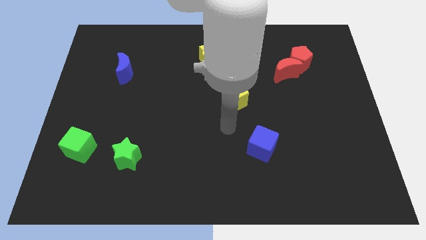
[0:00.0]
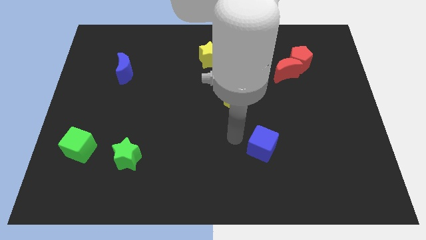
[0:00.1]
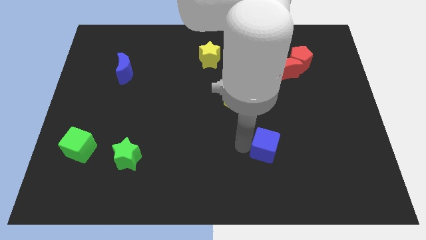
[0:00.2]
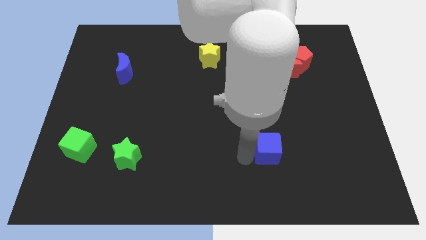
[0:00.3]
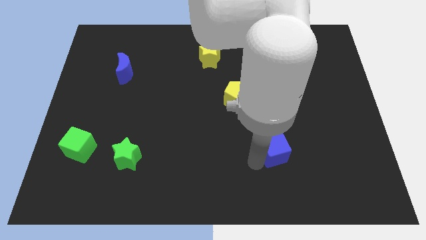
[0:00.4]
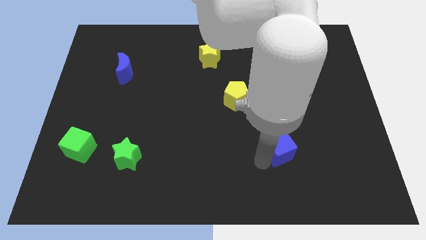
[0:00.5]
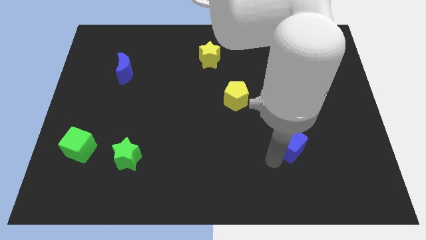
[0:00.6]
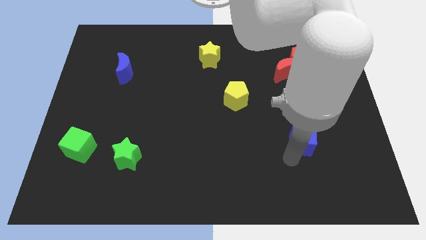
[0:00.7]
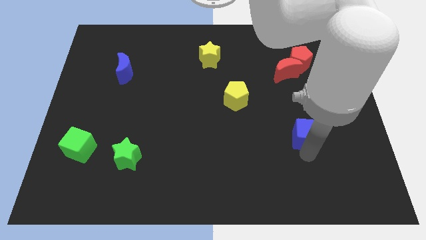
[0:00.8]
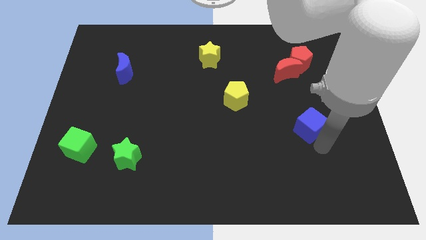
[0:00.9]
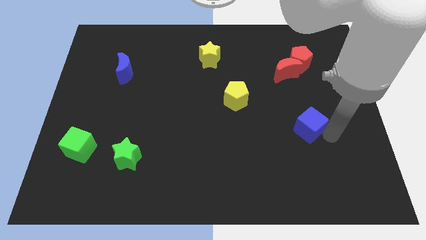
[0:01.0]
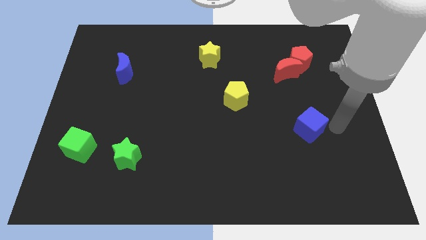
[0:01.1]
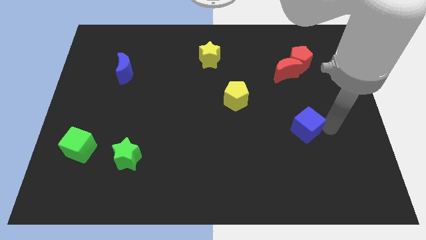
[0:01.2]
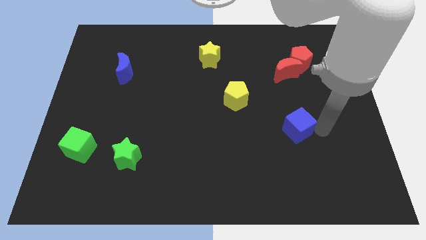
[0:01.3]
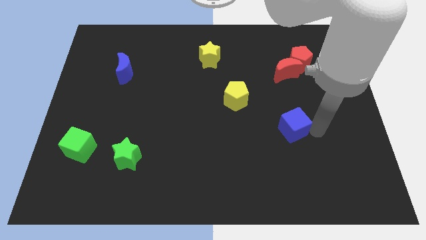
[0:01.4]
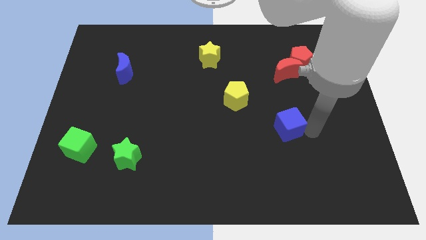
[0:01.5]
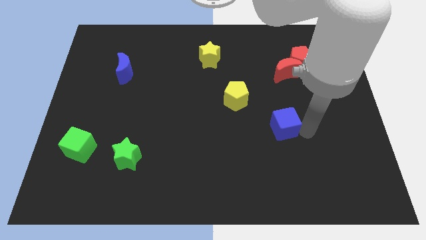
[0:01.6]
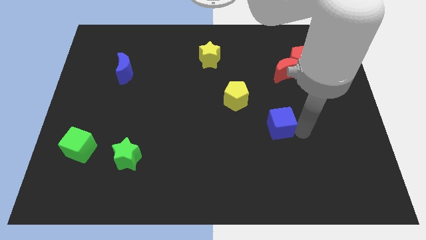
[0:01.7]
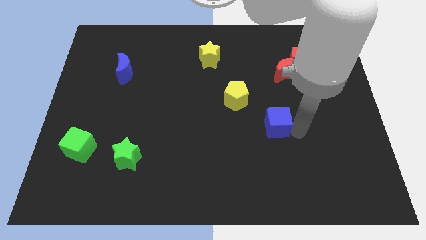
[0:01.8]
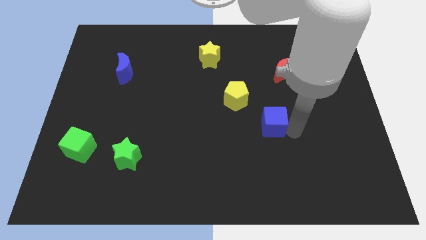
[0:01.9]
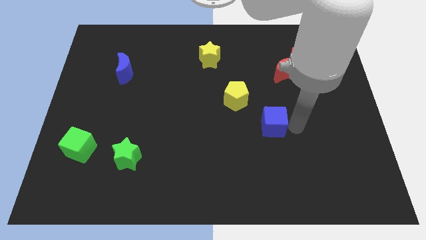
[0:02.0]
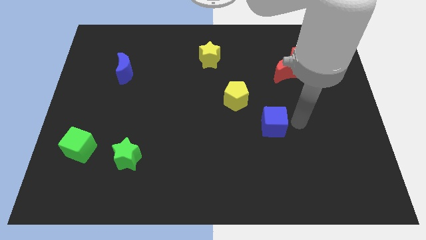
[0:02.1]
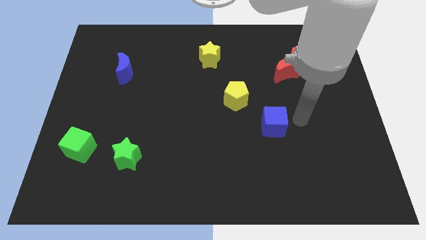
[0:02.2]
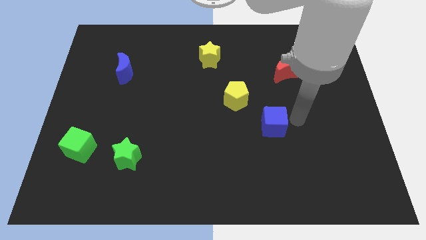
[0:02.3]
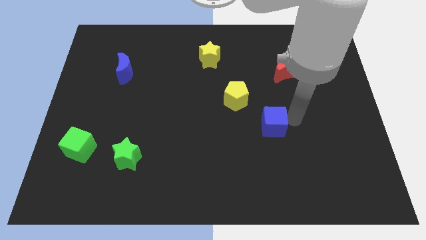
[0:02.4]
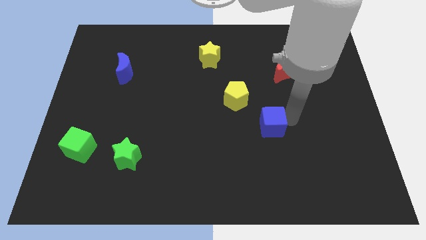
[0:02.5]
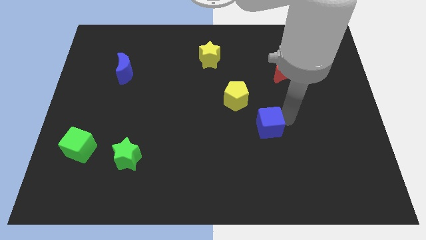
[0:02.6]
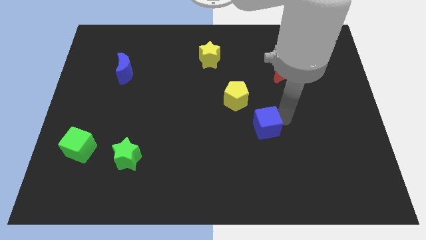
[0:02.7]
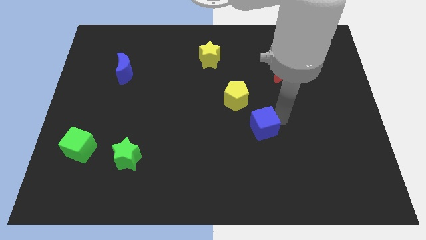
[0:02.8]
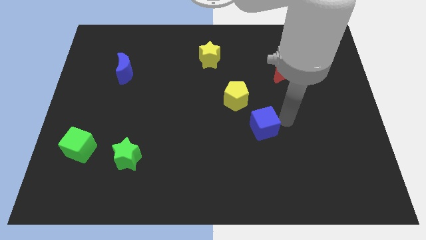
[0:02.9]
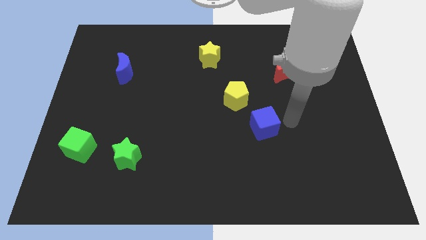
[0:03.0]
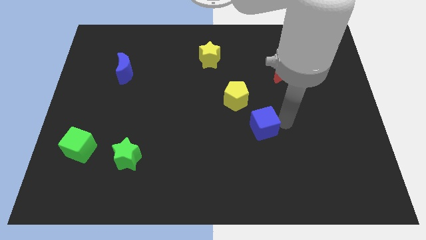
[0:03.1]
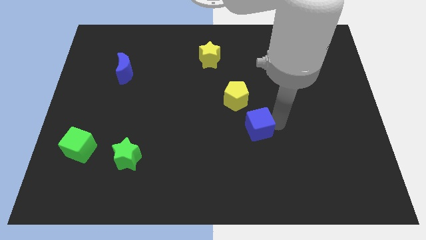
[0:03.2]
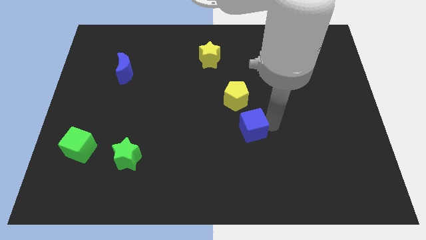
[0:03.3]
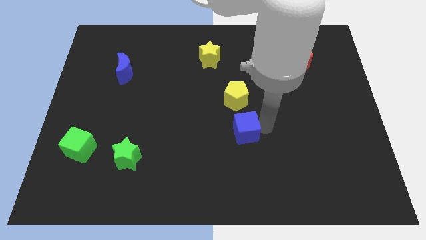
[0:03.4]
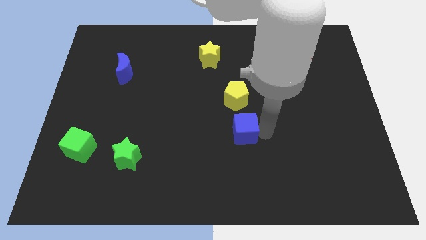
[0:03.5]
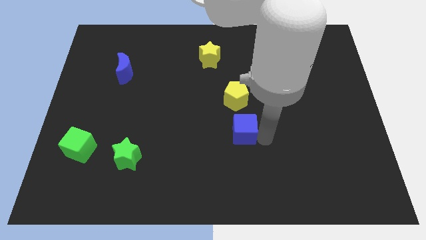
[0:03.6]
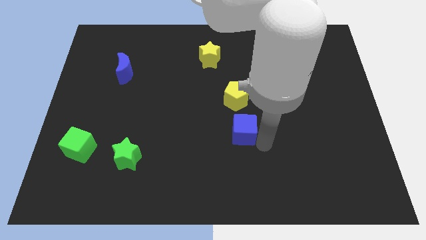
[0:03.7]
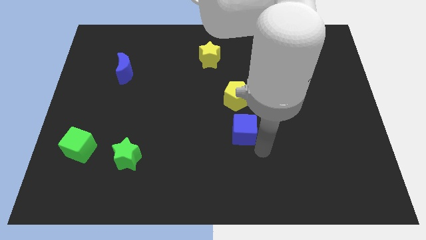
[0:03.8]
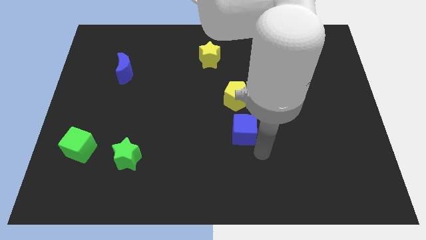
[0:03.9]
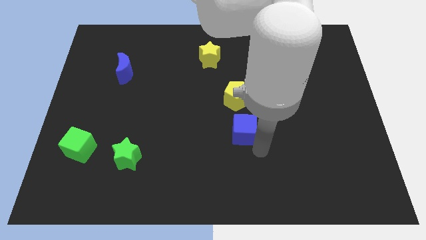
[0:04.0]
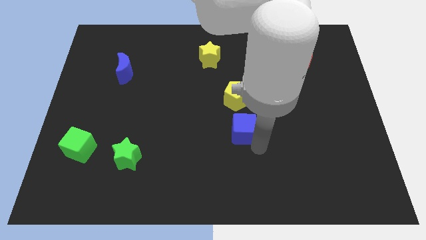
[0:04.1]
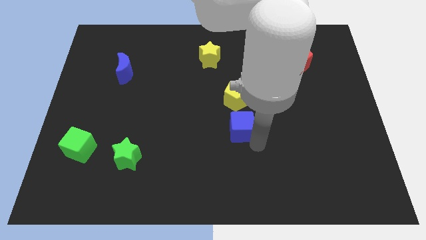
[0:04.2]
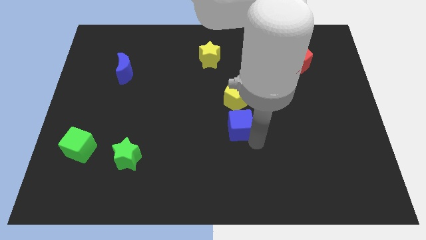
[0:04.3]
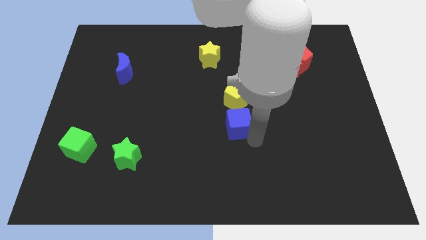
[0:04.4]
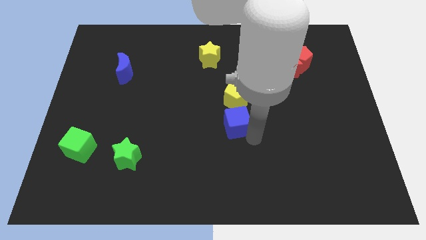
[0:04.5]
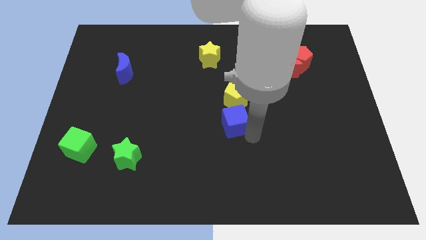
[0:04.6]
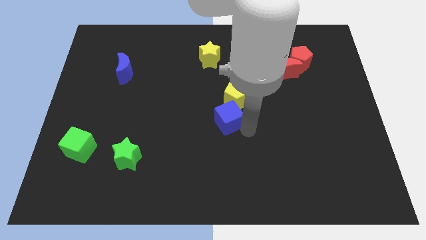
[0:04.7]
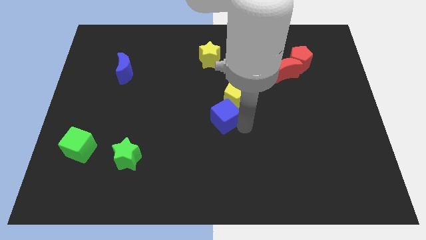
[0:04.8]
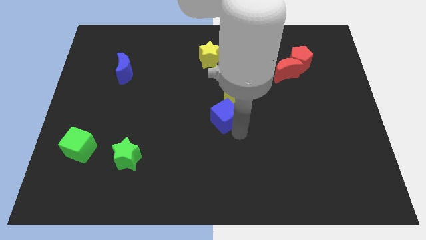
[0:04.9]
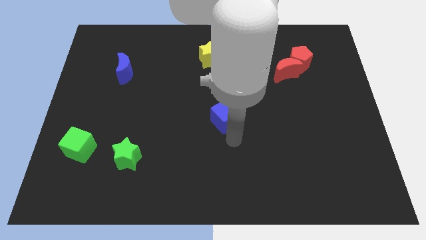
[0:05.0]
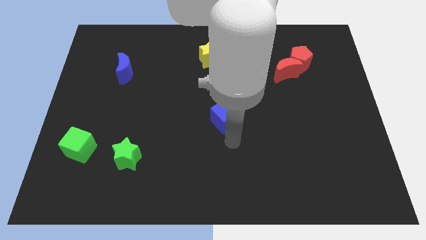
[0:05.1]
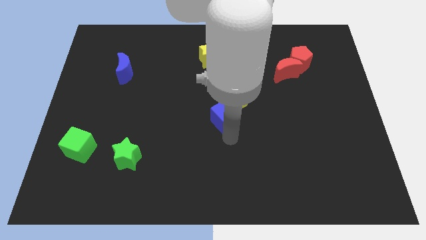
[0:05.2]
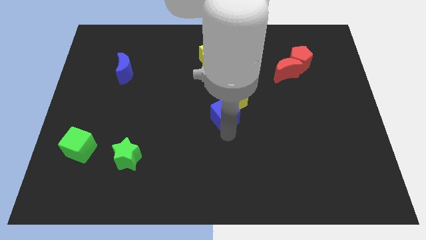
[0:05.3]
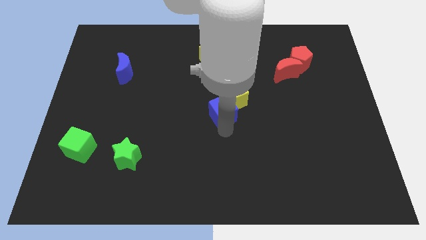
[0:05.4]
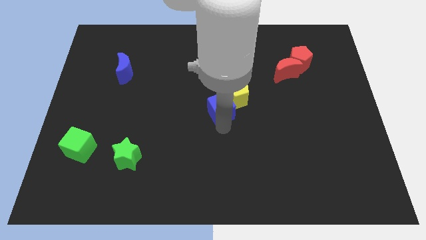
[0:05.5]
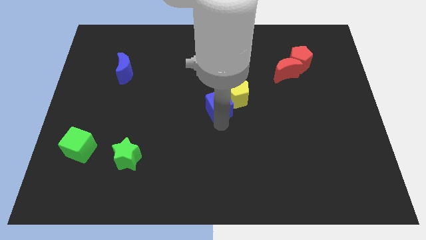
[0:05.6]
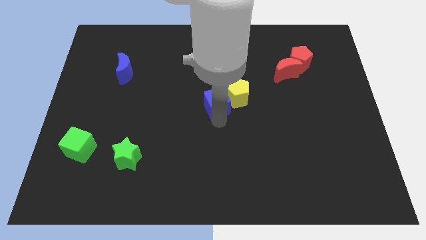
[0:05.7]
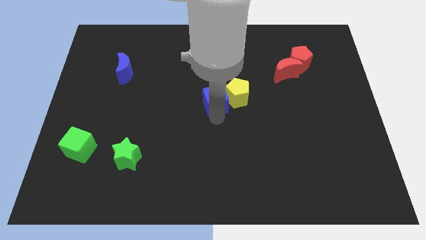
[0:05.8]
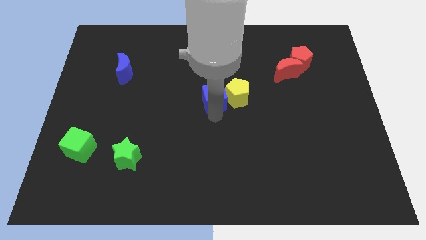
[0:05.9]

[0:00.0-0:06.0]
push the blue cube diagonally up and to the left of the yellow pentagon

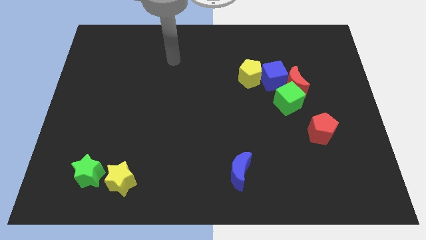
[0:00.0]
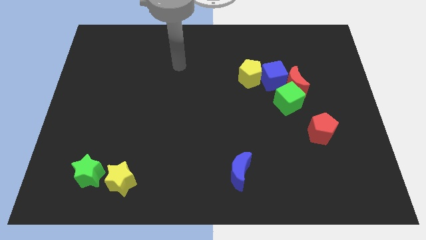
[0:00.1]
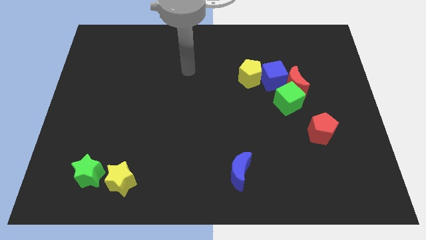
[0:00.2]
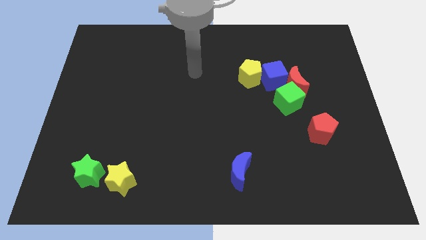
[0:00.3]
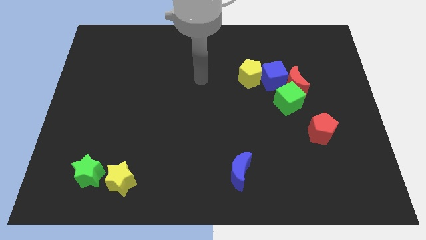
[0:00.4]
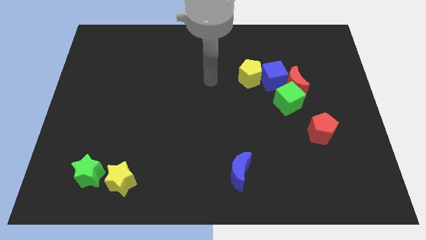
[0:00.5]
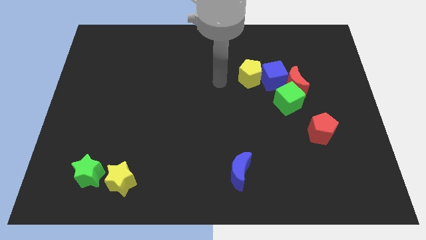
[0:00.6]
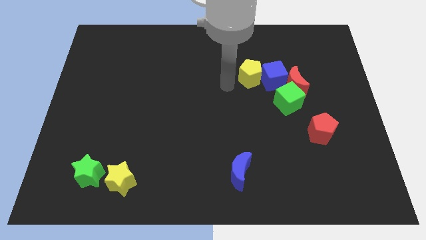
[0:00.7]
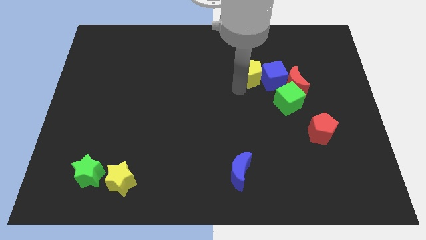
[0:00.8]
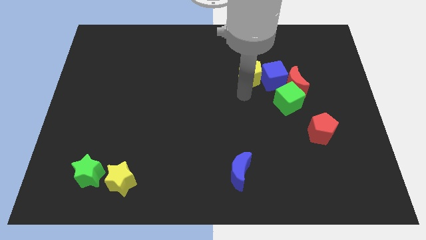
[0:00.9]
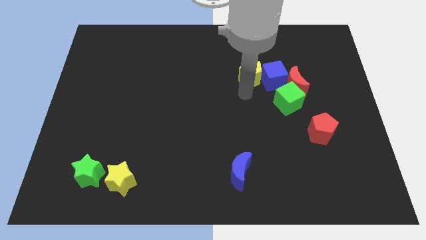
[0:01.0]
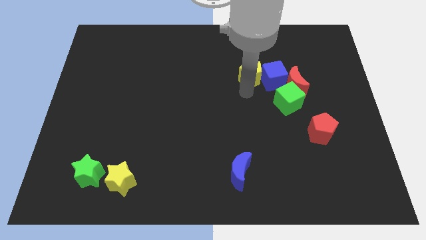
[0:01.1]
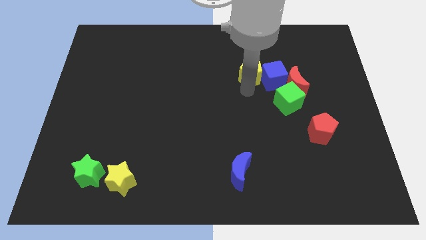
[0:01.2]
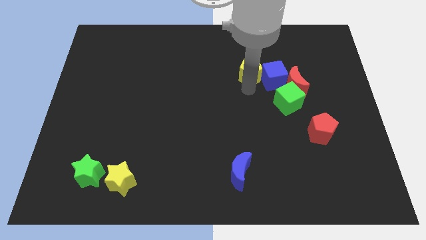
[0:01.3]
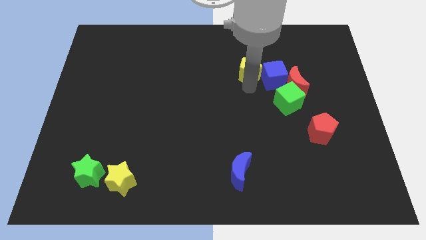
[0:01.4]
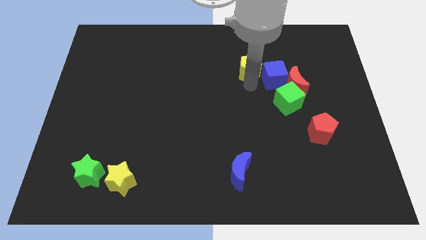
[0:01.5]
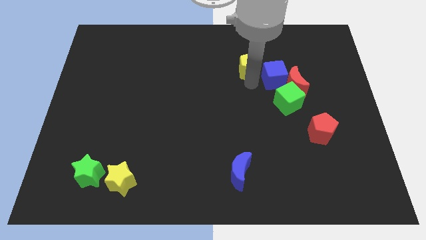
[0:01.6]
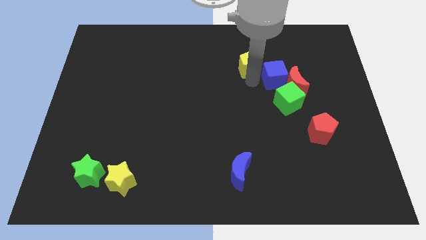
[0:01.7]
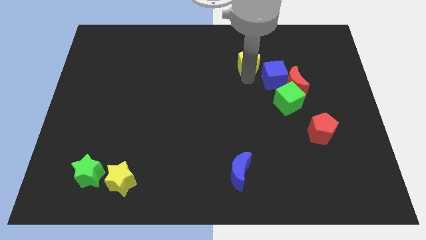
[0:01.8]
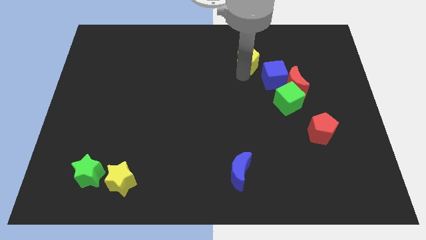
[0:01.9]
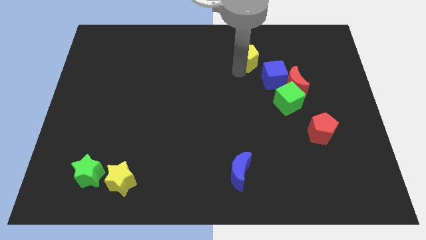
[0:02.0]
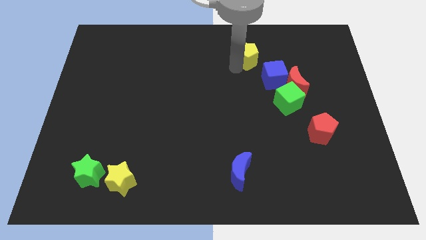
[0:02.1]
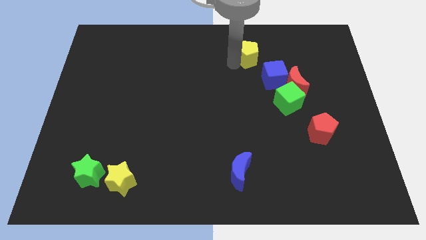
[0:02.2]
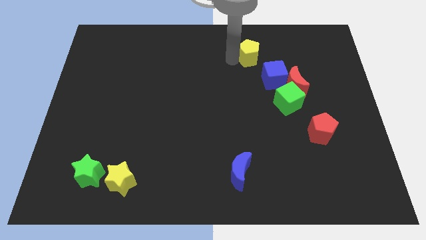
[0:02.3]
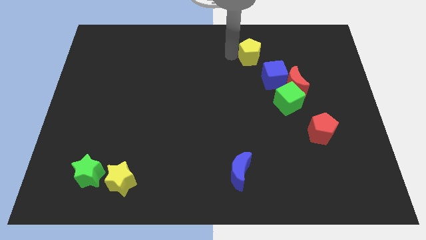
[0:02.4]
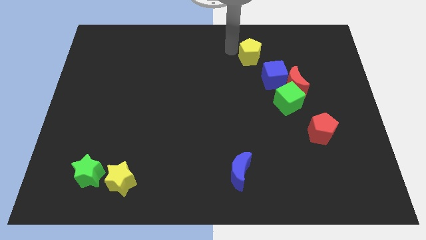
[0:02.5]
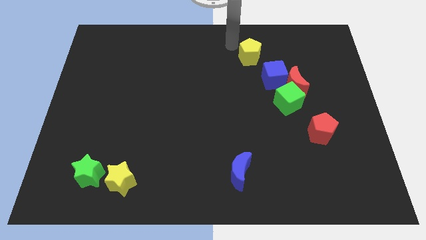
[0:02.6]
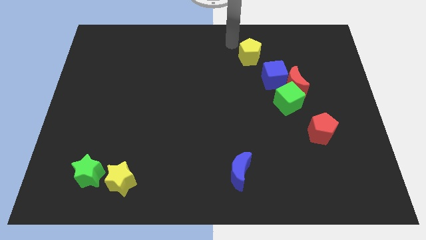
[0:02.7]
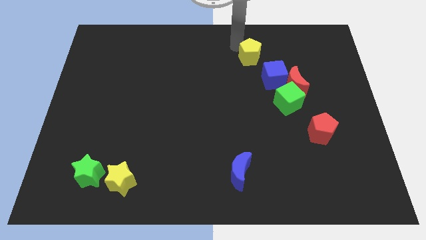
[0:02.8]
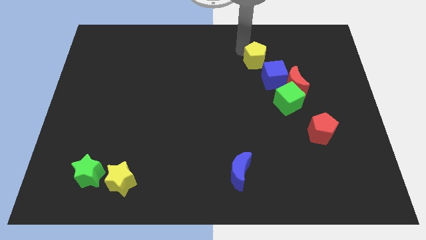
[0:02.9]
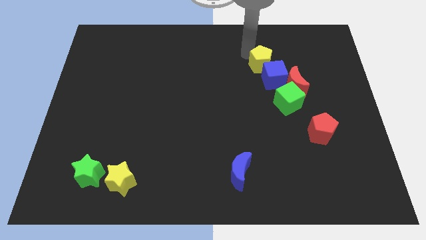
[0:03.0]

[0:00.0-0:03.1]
slide the yellow pentagon to the top left side of the red moon
